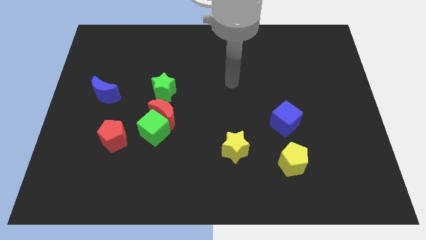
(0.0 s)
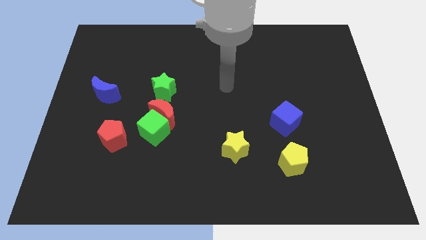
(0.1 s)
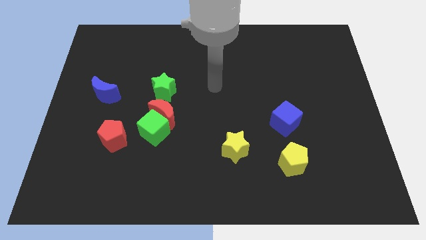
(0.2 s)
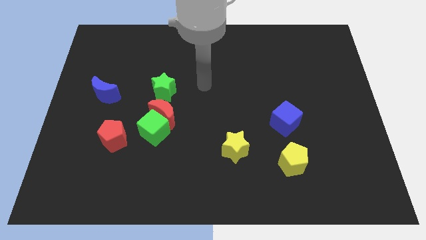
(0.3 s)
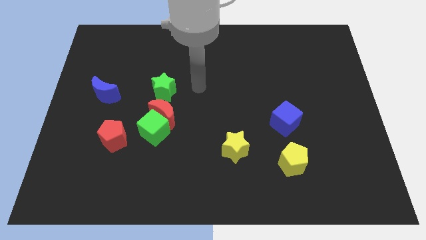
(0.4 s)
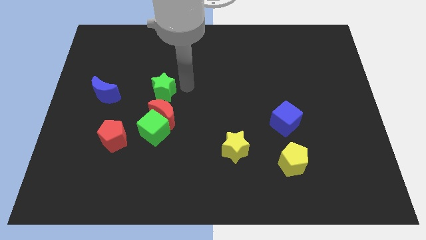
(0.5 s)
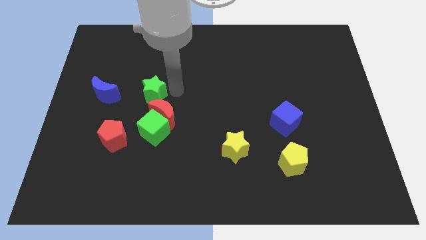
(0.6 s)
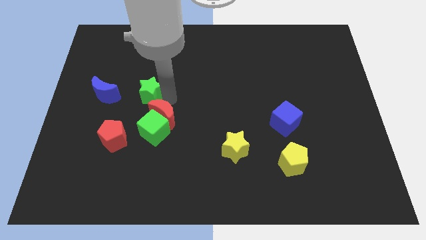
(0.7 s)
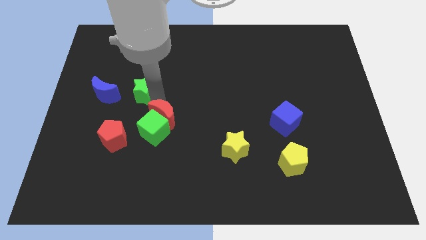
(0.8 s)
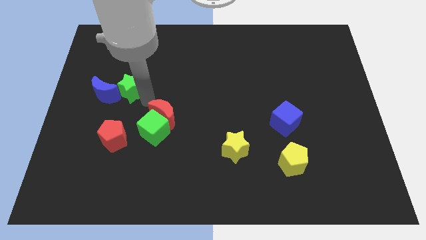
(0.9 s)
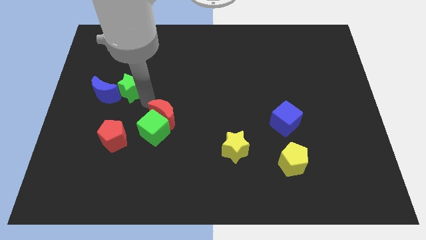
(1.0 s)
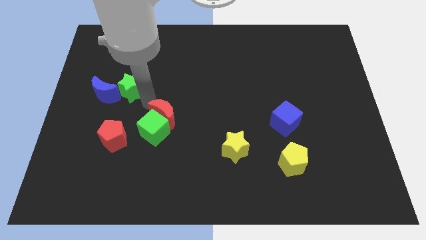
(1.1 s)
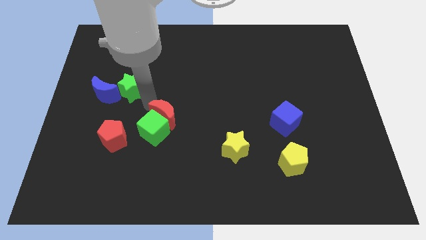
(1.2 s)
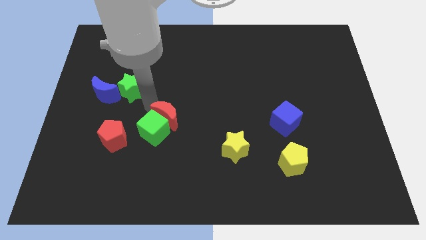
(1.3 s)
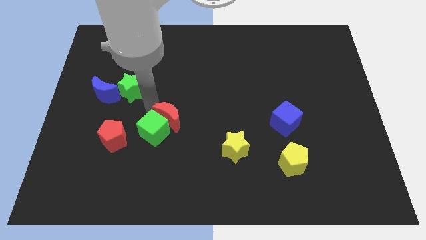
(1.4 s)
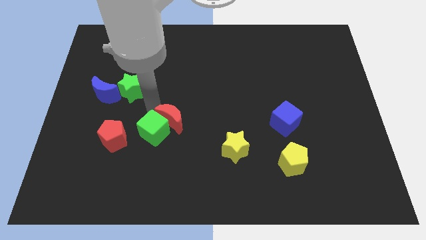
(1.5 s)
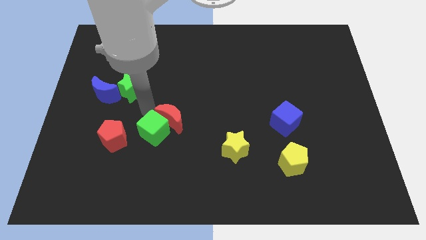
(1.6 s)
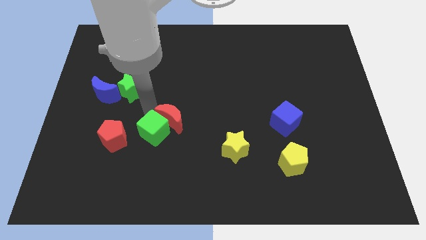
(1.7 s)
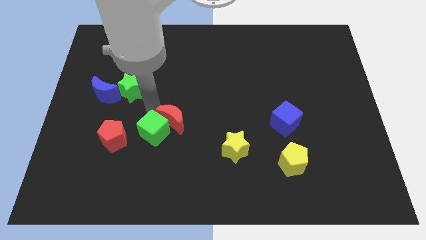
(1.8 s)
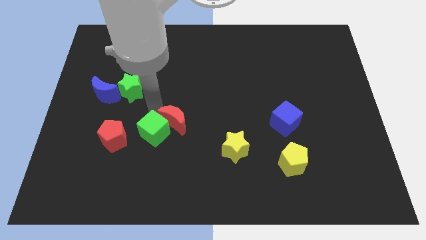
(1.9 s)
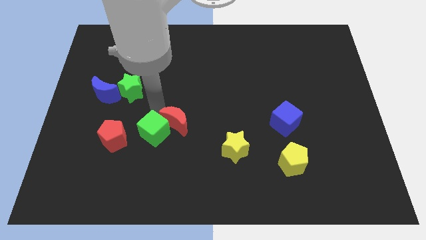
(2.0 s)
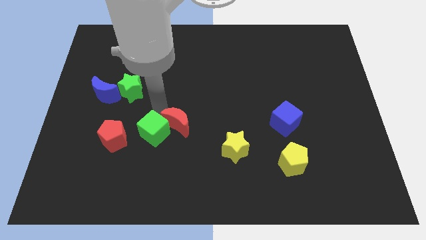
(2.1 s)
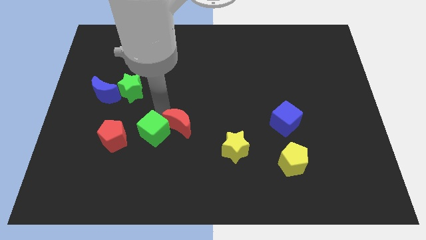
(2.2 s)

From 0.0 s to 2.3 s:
move the red moon away from the green cube and green star

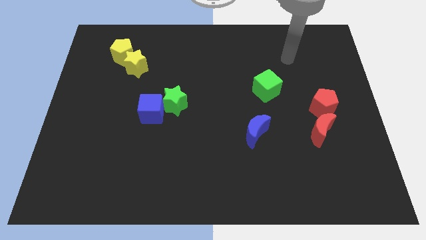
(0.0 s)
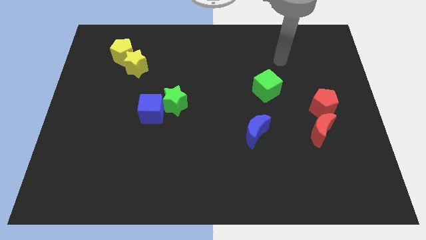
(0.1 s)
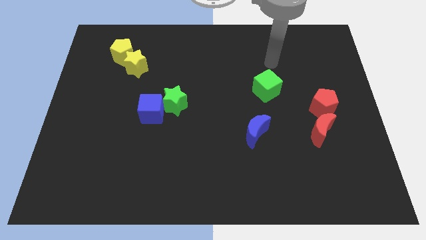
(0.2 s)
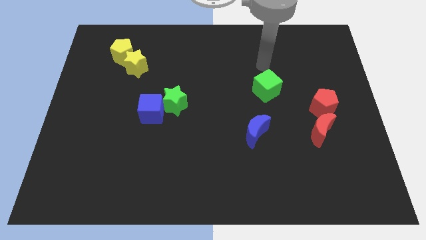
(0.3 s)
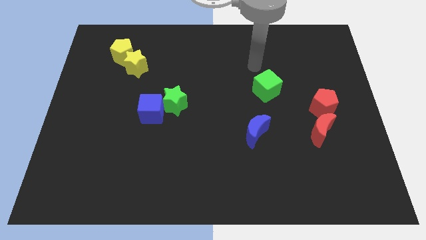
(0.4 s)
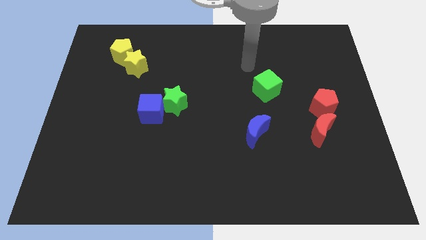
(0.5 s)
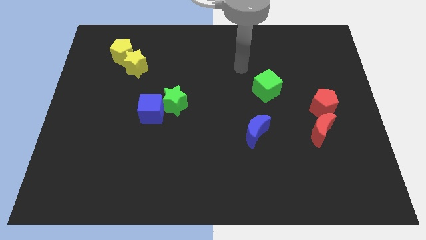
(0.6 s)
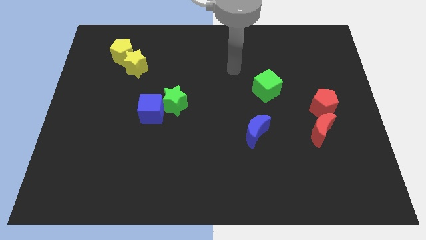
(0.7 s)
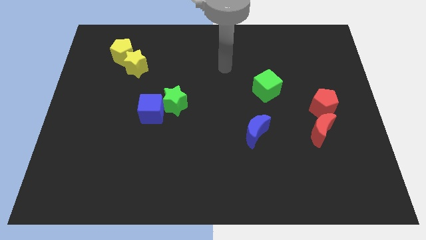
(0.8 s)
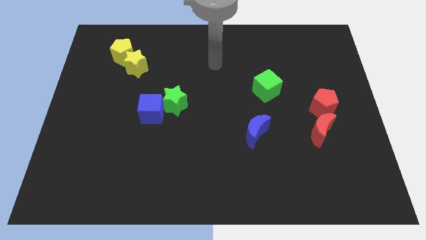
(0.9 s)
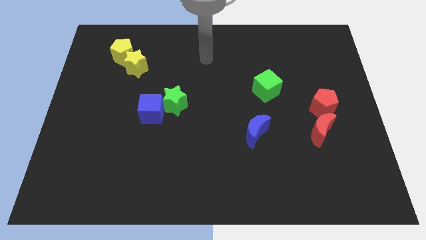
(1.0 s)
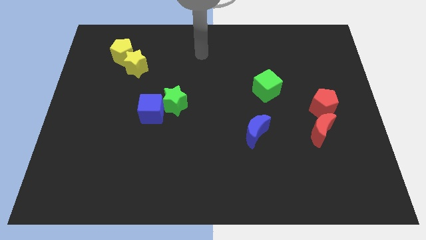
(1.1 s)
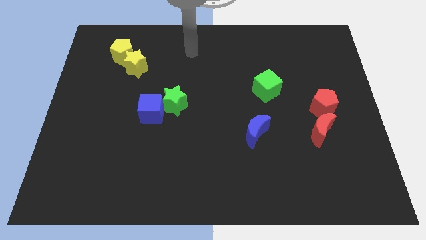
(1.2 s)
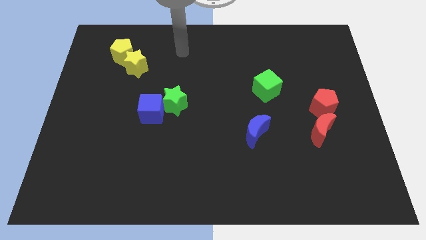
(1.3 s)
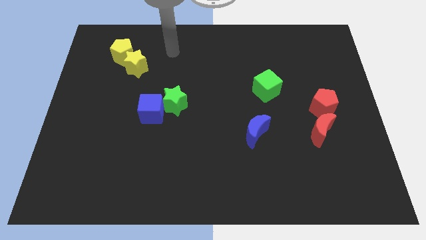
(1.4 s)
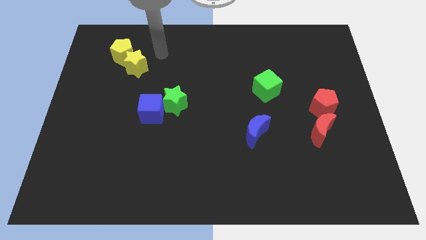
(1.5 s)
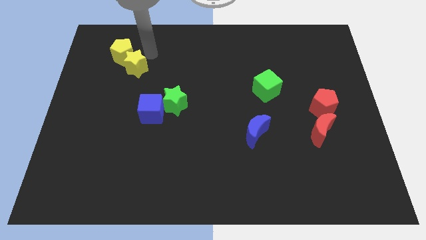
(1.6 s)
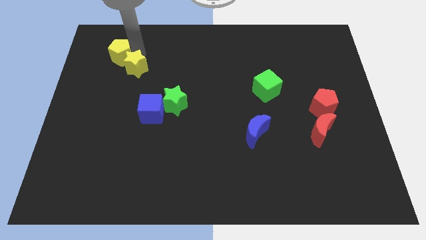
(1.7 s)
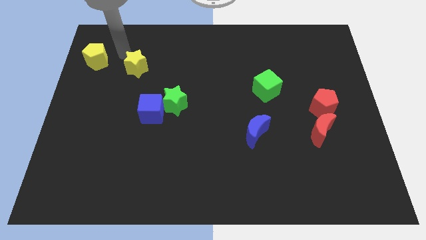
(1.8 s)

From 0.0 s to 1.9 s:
pull the yellow star apart from the yellow pentagon

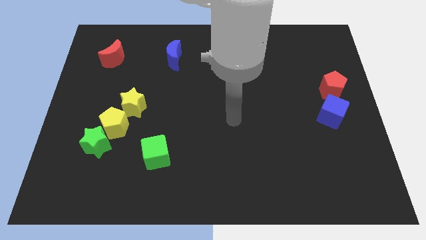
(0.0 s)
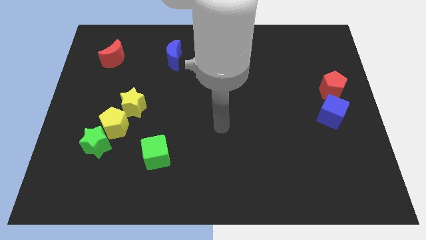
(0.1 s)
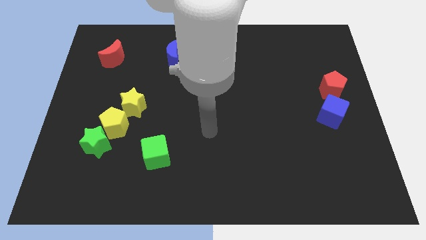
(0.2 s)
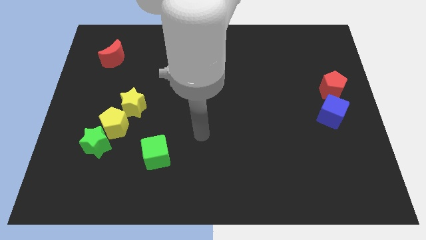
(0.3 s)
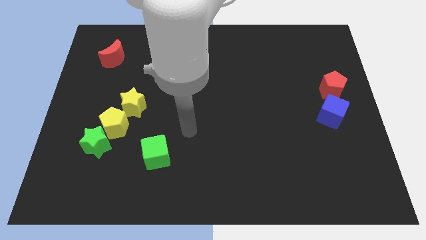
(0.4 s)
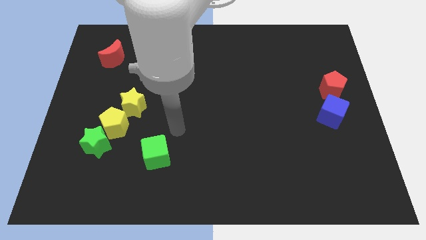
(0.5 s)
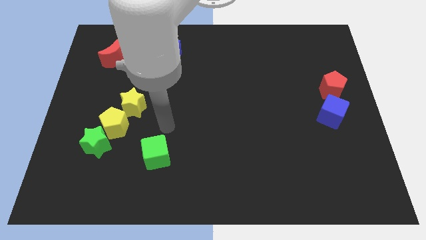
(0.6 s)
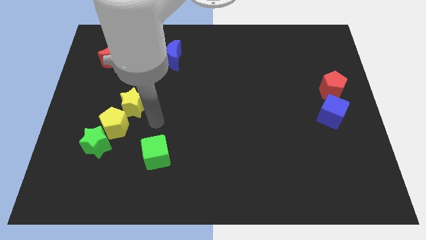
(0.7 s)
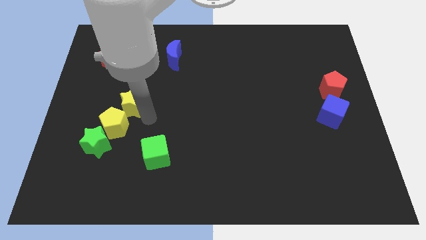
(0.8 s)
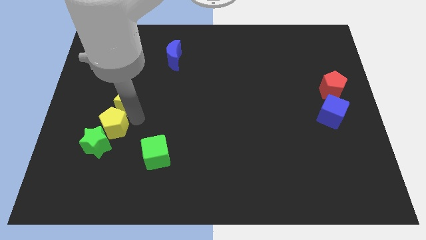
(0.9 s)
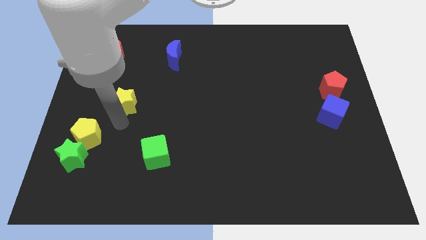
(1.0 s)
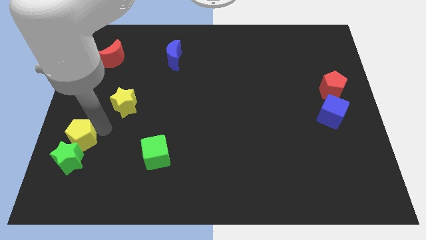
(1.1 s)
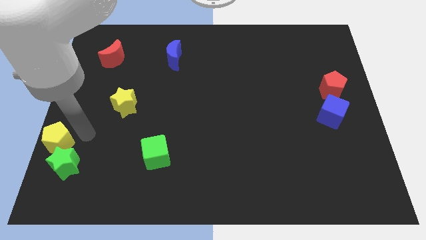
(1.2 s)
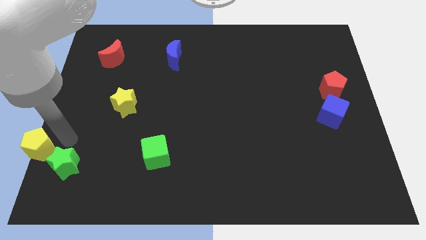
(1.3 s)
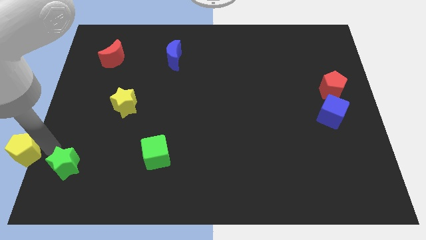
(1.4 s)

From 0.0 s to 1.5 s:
move the green star away from the yellow pentagon

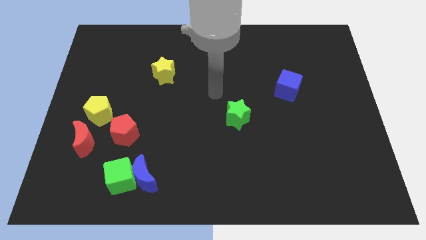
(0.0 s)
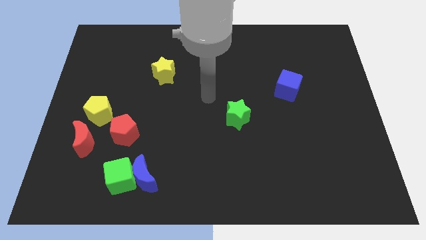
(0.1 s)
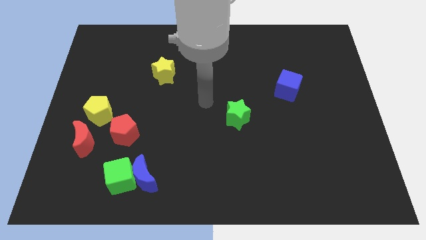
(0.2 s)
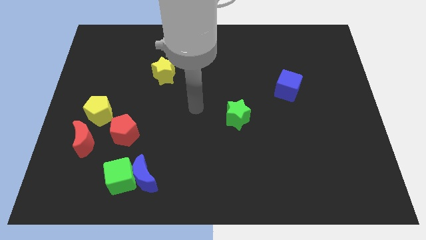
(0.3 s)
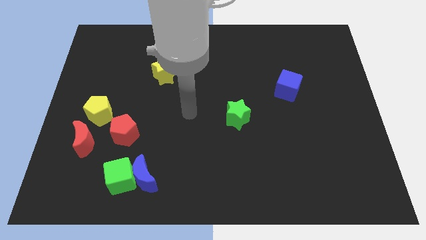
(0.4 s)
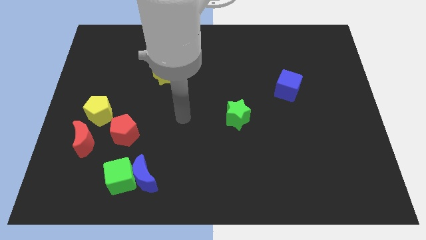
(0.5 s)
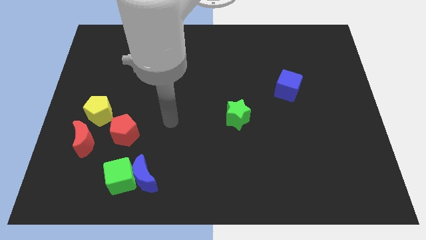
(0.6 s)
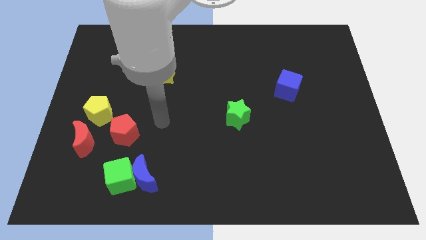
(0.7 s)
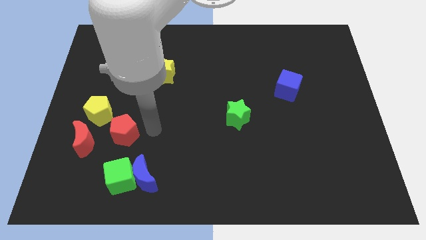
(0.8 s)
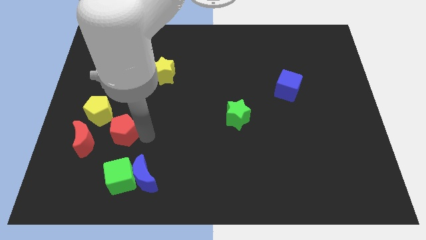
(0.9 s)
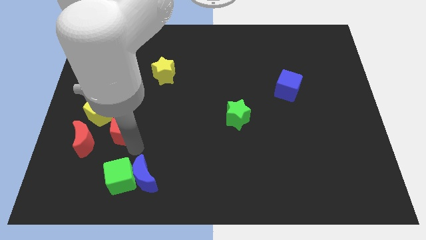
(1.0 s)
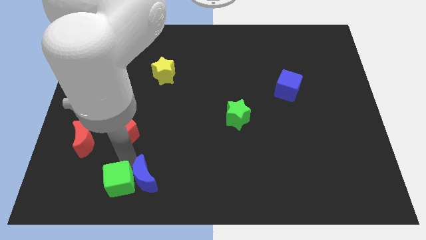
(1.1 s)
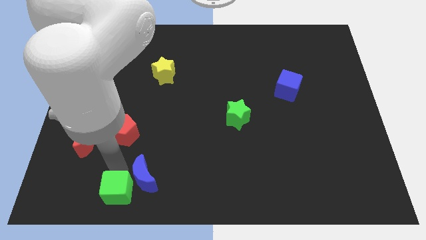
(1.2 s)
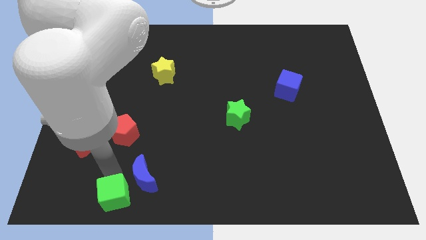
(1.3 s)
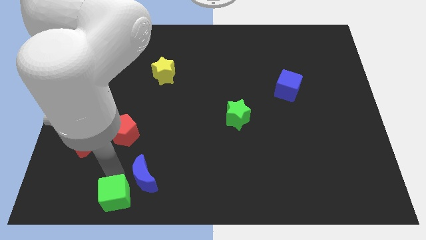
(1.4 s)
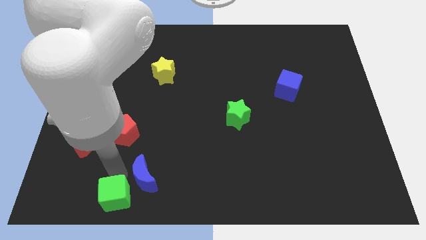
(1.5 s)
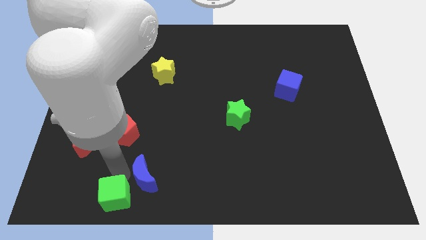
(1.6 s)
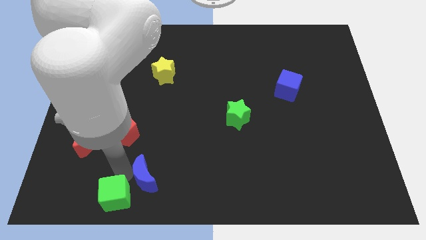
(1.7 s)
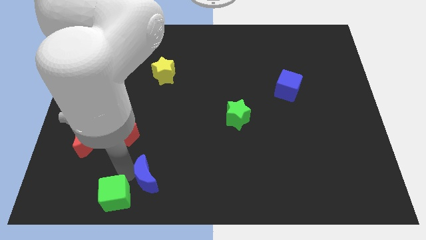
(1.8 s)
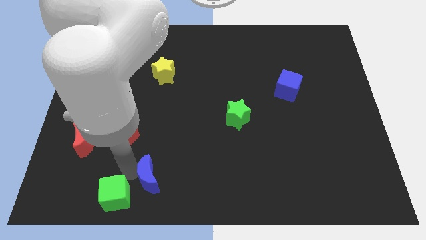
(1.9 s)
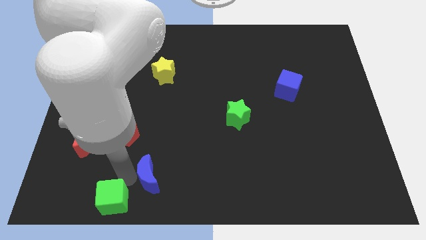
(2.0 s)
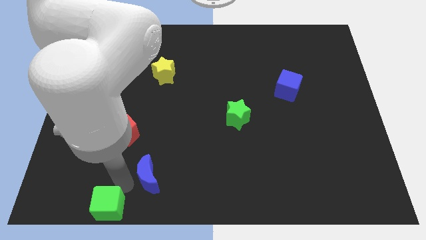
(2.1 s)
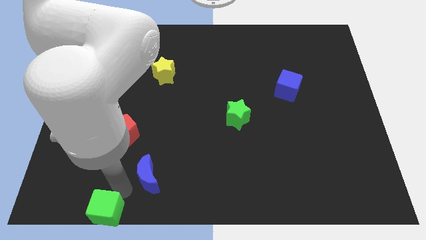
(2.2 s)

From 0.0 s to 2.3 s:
separate the blue moon from the green cube

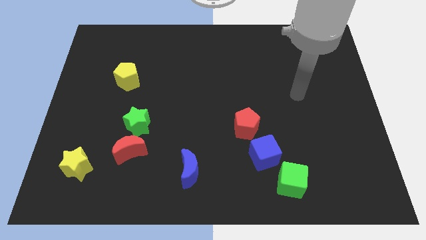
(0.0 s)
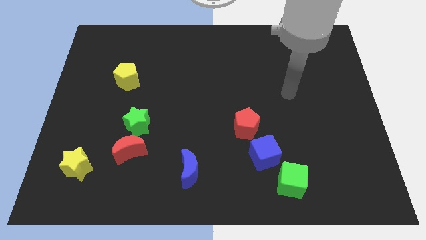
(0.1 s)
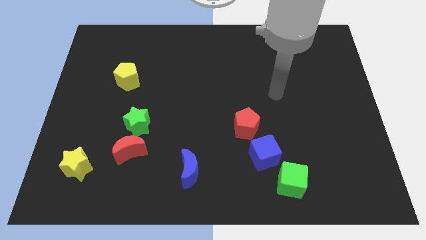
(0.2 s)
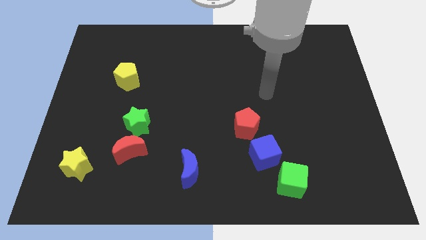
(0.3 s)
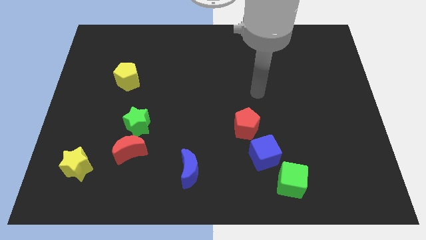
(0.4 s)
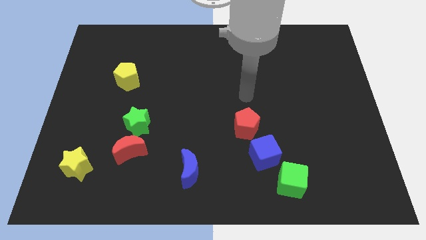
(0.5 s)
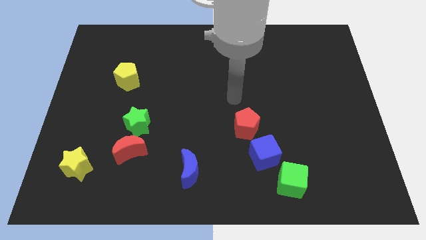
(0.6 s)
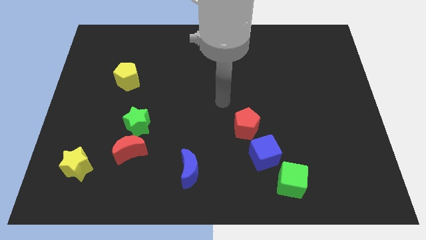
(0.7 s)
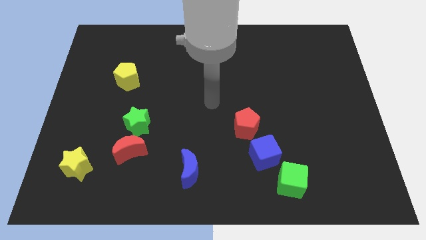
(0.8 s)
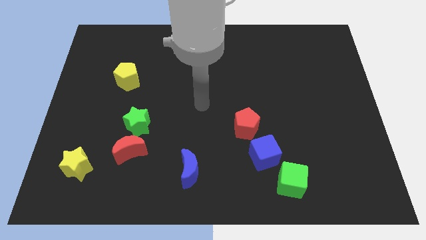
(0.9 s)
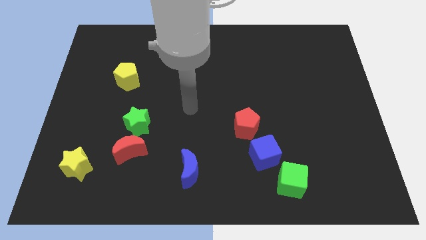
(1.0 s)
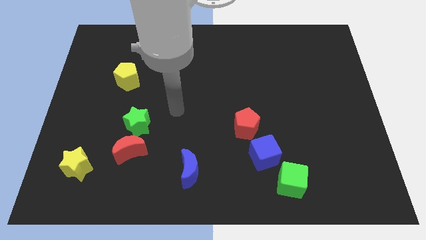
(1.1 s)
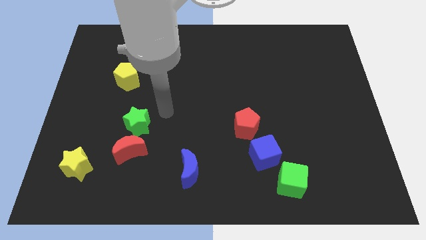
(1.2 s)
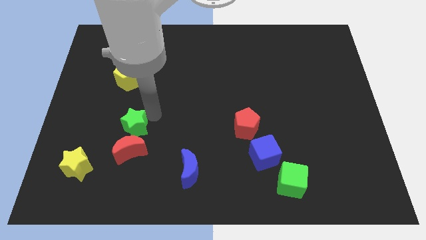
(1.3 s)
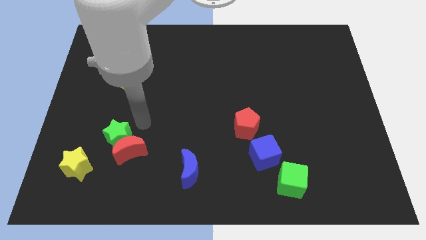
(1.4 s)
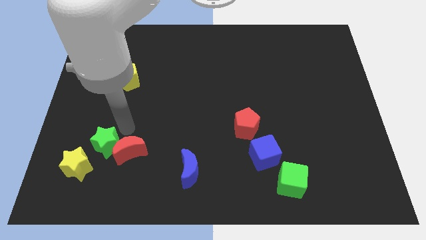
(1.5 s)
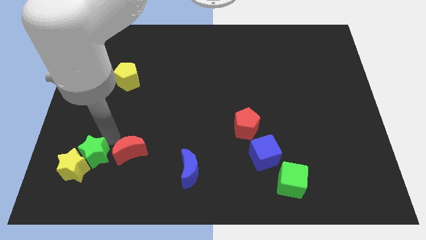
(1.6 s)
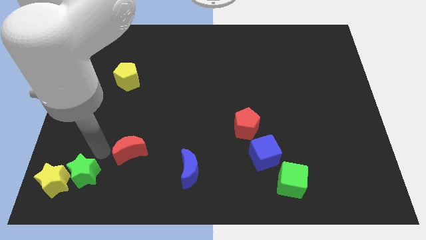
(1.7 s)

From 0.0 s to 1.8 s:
move the red moon away from the green star
